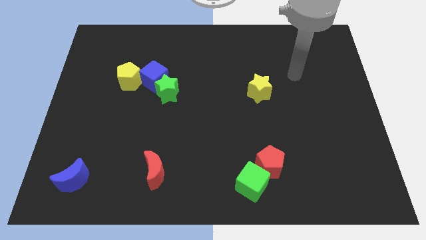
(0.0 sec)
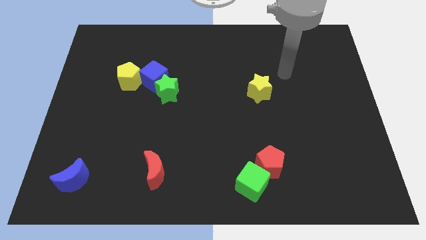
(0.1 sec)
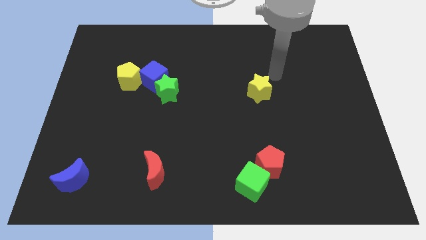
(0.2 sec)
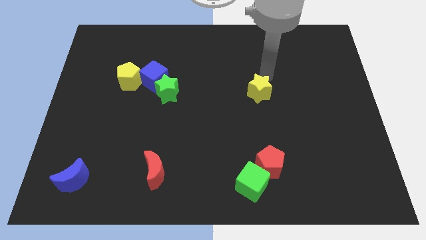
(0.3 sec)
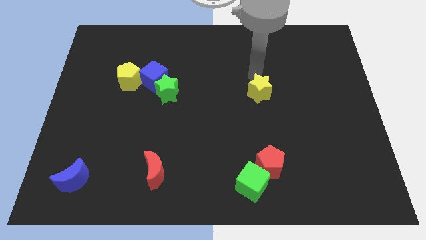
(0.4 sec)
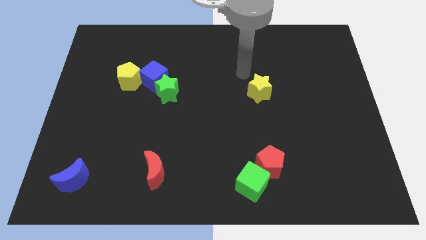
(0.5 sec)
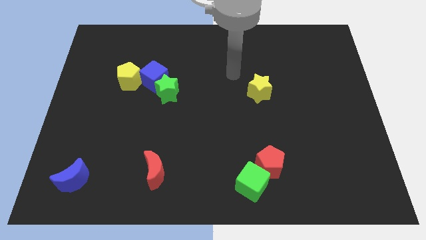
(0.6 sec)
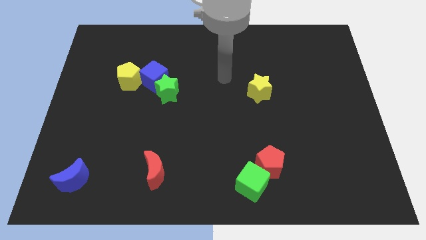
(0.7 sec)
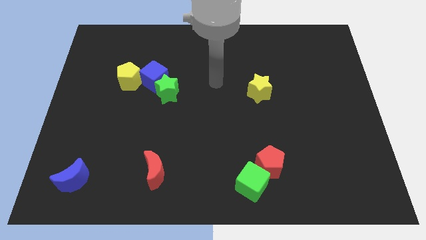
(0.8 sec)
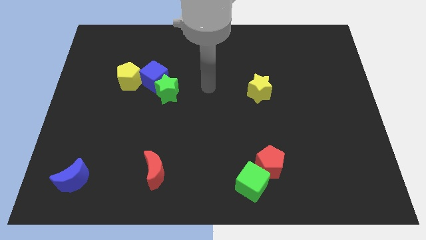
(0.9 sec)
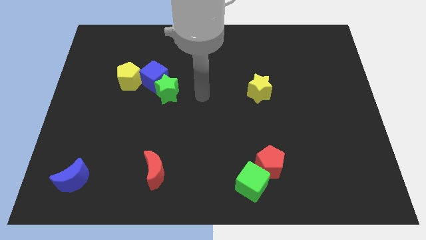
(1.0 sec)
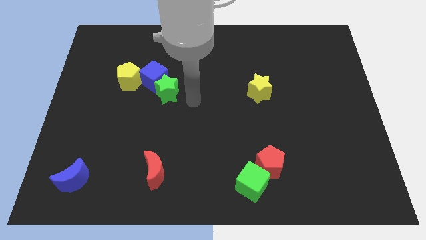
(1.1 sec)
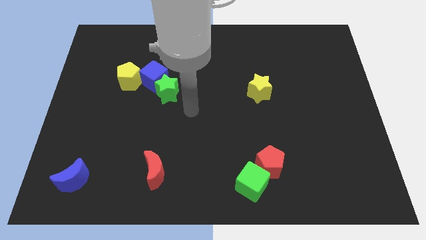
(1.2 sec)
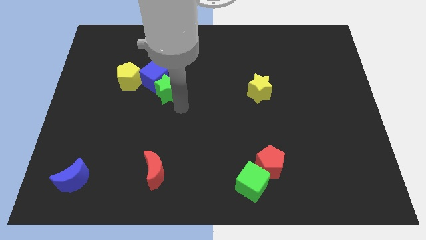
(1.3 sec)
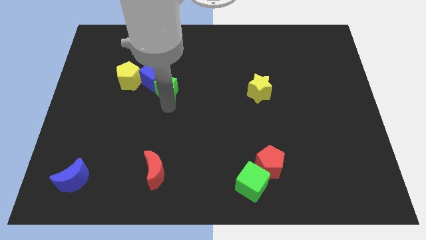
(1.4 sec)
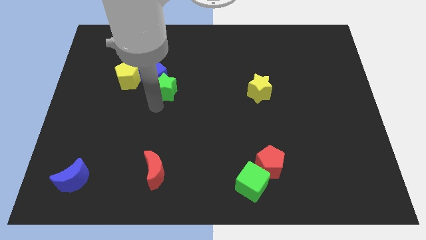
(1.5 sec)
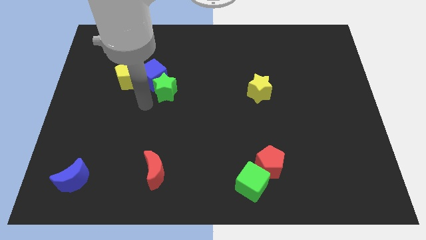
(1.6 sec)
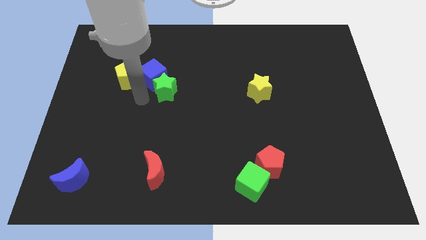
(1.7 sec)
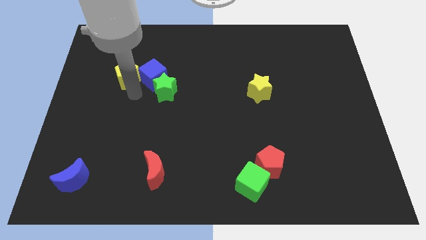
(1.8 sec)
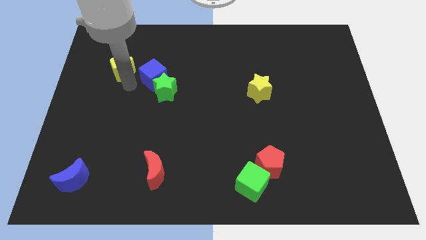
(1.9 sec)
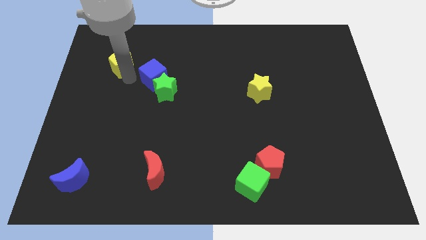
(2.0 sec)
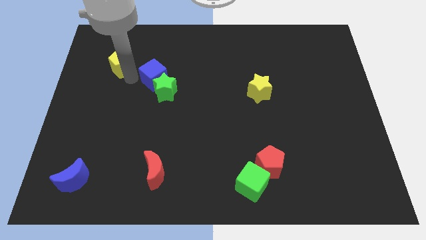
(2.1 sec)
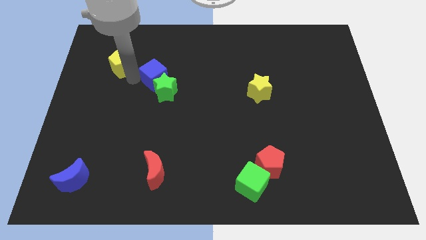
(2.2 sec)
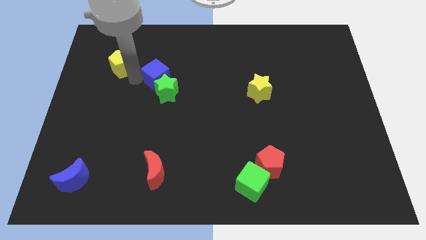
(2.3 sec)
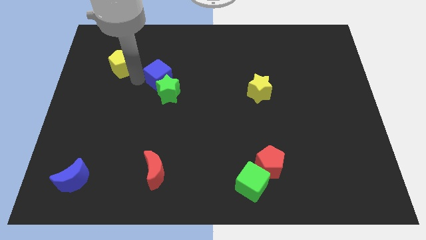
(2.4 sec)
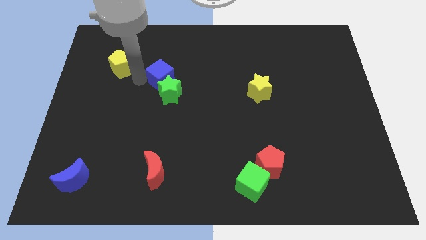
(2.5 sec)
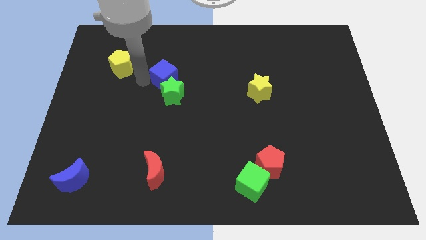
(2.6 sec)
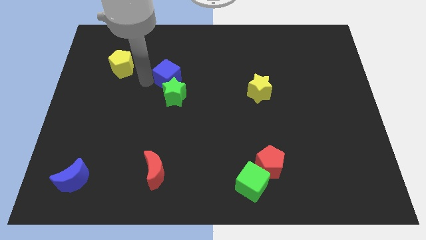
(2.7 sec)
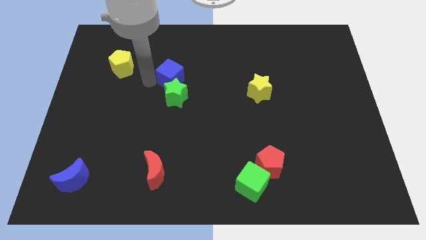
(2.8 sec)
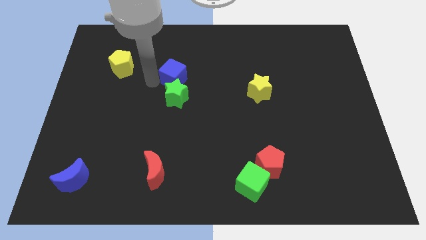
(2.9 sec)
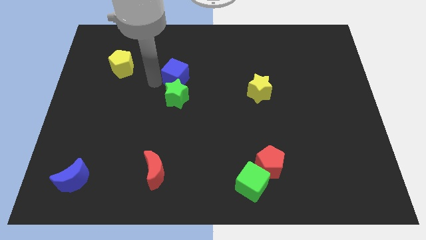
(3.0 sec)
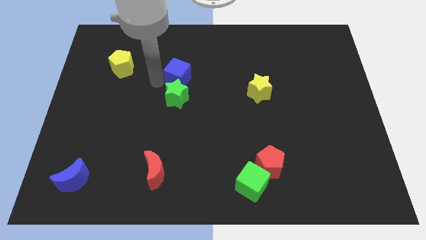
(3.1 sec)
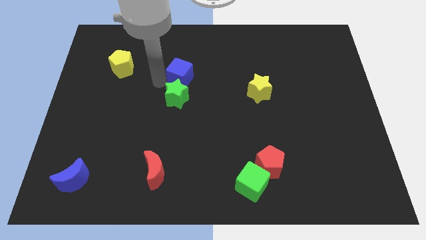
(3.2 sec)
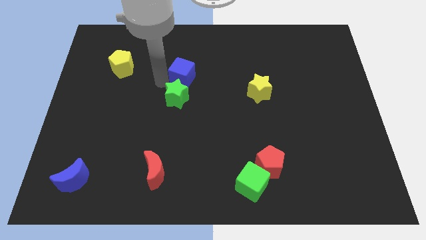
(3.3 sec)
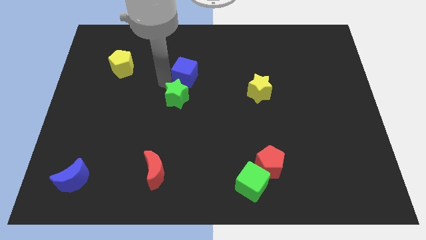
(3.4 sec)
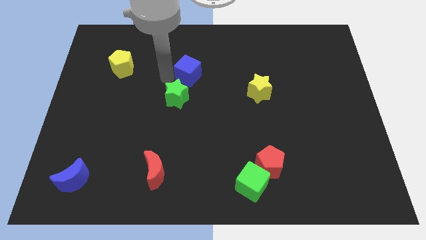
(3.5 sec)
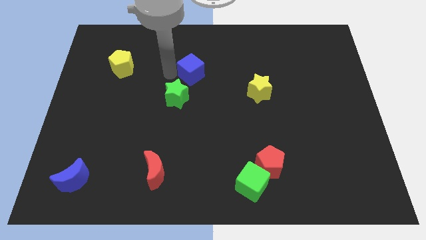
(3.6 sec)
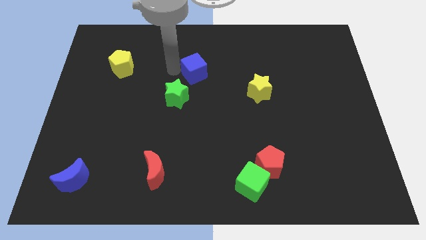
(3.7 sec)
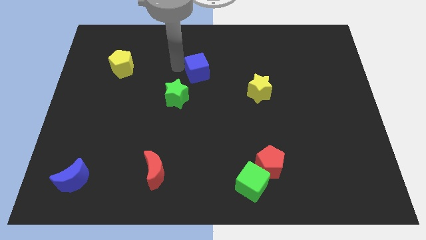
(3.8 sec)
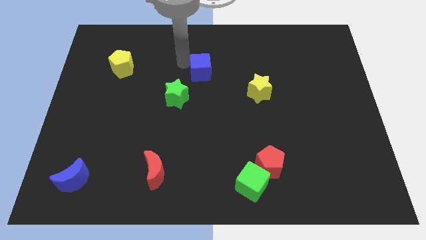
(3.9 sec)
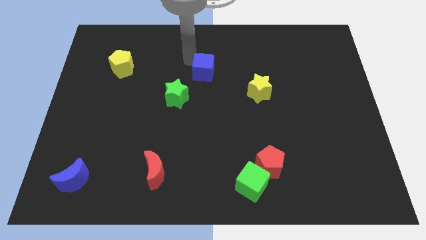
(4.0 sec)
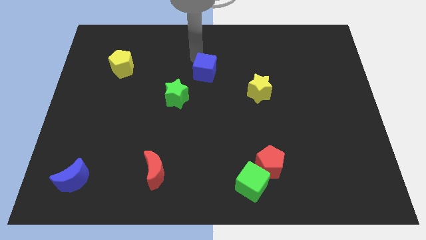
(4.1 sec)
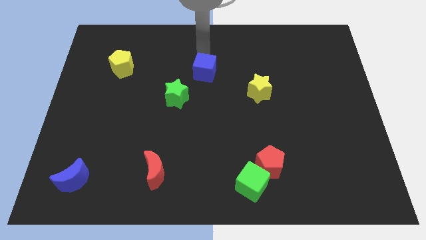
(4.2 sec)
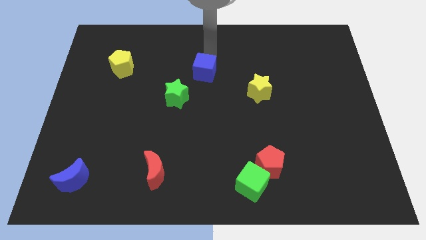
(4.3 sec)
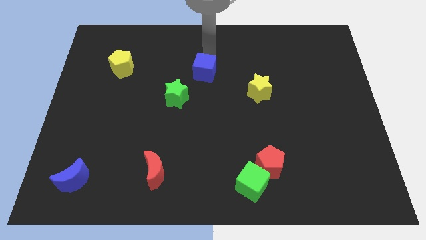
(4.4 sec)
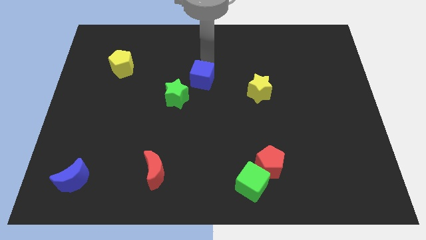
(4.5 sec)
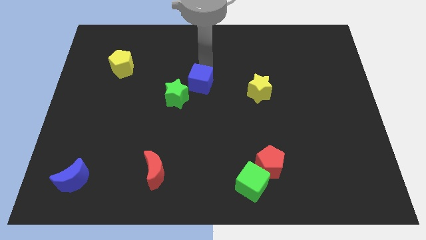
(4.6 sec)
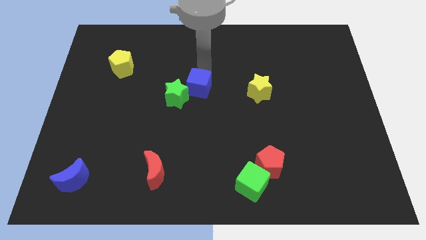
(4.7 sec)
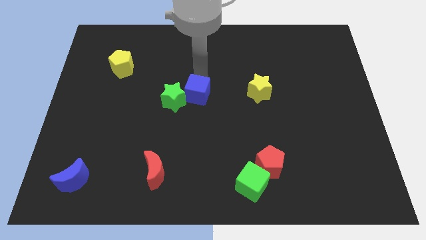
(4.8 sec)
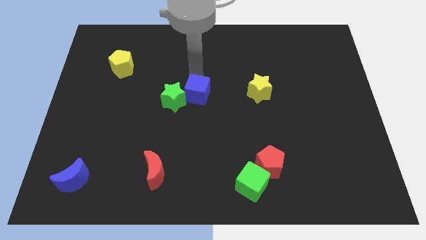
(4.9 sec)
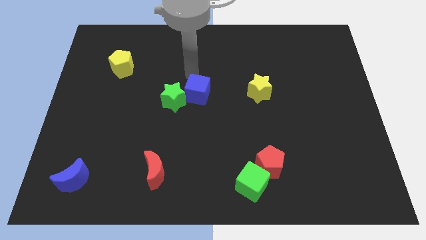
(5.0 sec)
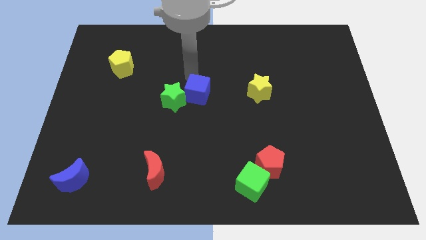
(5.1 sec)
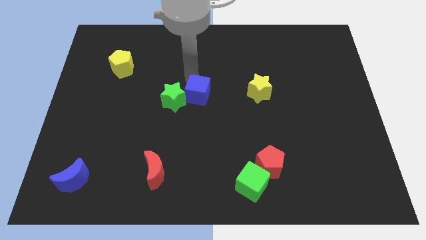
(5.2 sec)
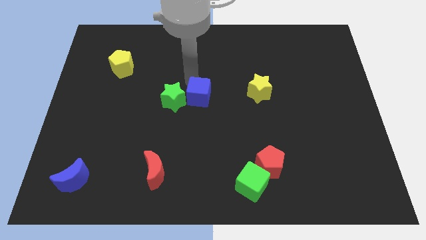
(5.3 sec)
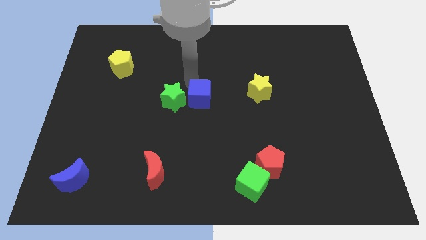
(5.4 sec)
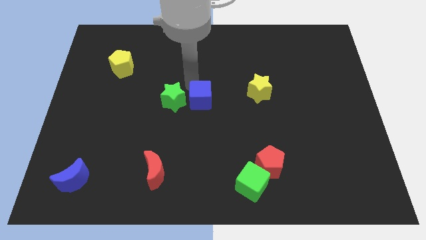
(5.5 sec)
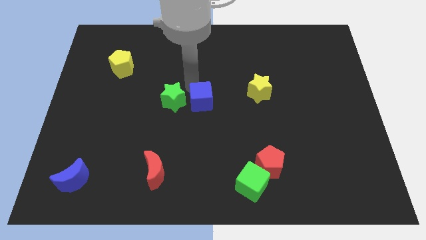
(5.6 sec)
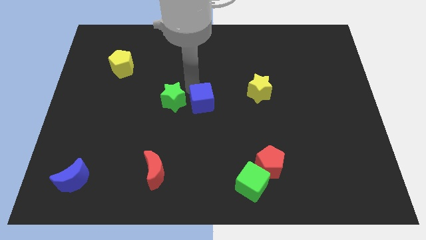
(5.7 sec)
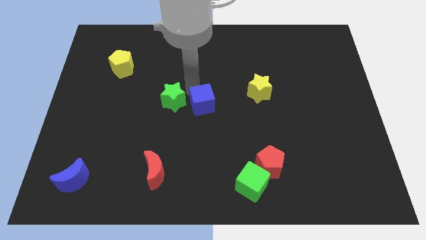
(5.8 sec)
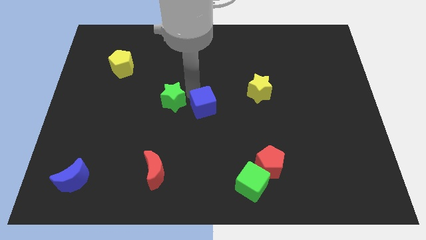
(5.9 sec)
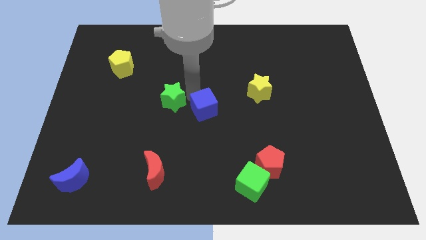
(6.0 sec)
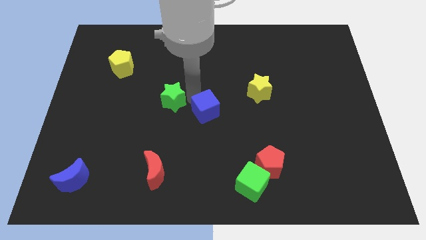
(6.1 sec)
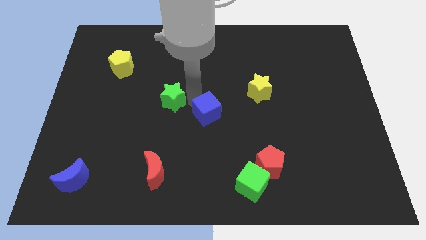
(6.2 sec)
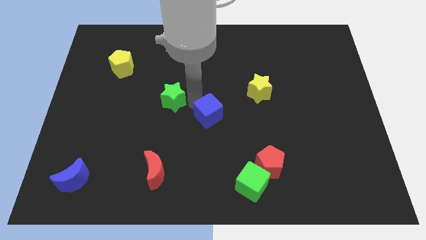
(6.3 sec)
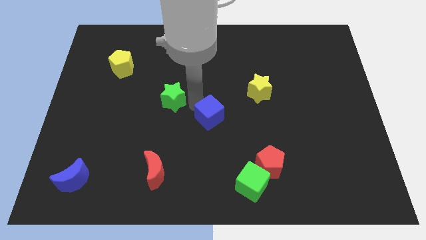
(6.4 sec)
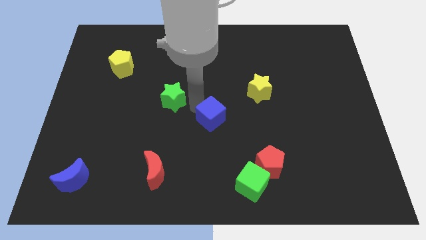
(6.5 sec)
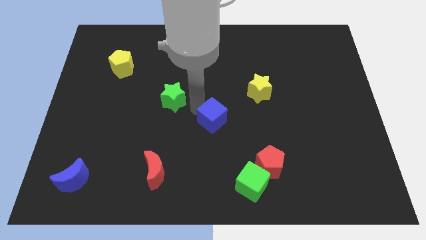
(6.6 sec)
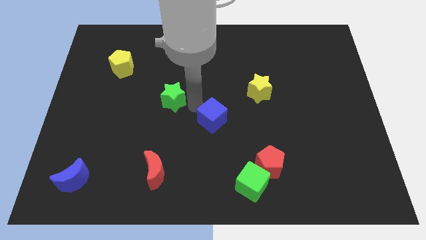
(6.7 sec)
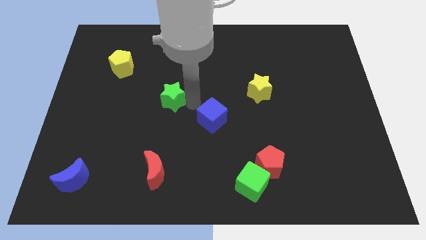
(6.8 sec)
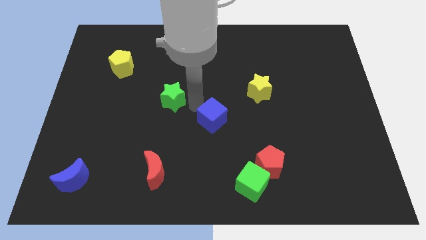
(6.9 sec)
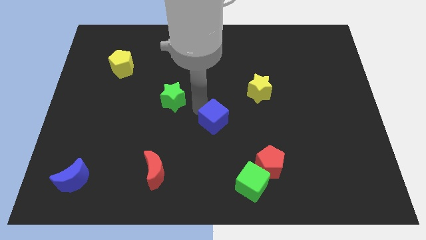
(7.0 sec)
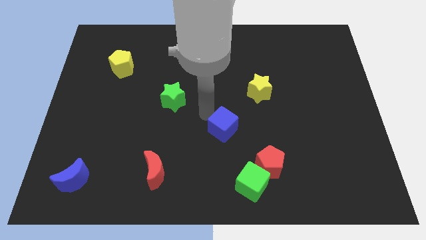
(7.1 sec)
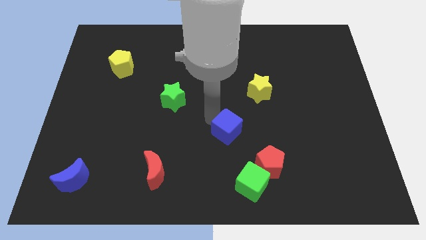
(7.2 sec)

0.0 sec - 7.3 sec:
push the blue cube to the top left side of the red pentagon
